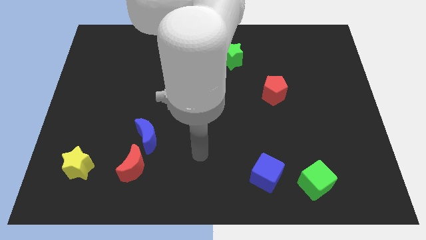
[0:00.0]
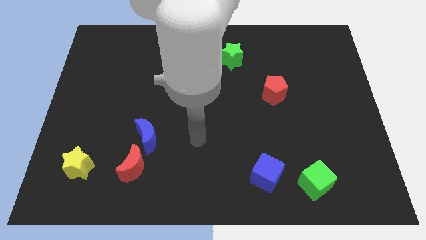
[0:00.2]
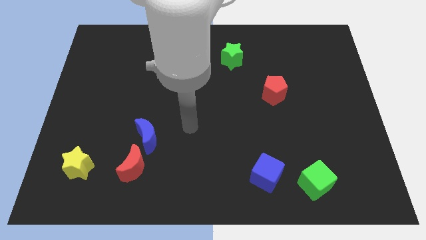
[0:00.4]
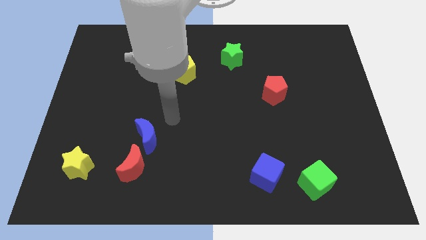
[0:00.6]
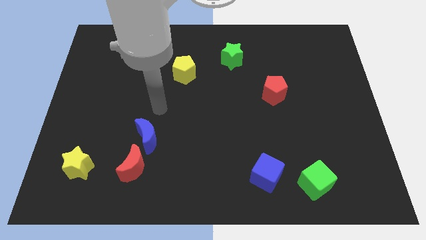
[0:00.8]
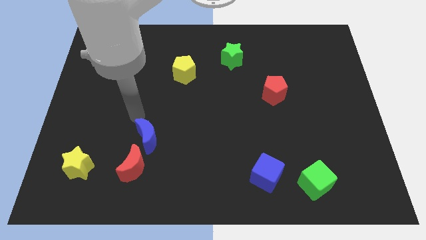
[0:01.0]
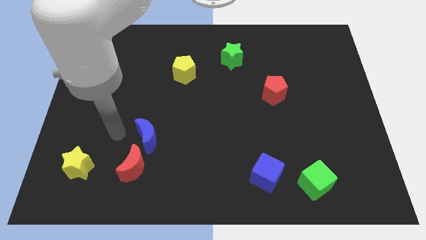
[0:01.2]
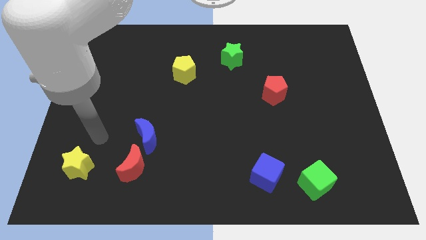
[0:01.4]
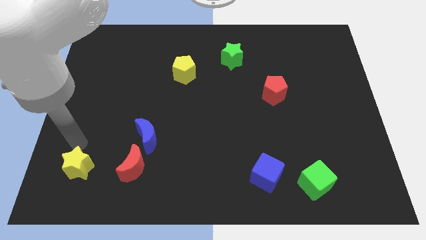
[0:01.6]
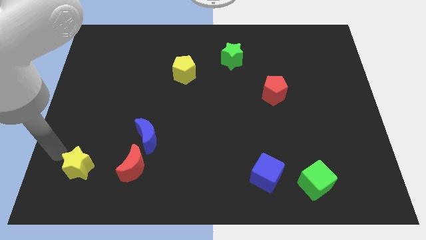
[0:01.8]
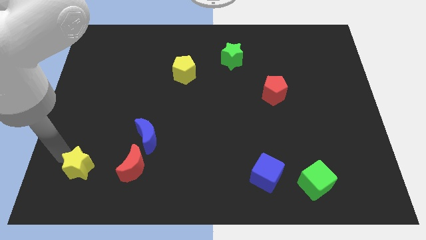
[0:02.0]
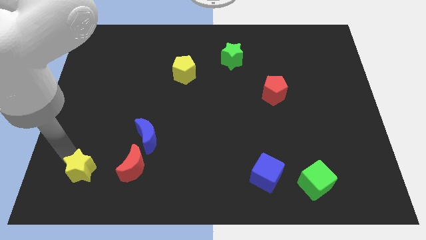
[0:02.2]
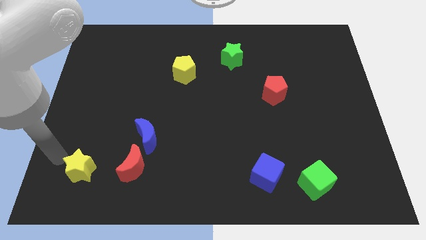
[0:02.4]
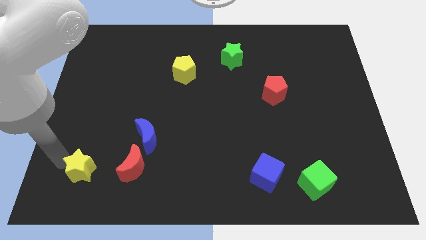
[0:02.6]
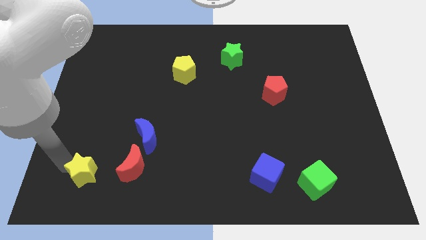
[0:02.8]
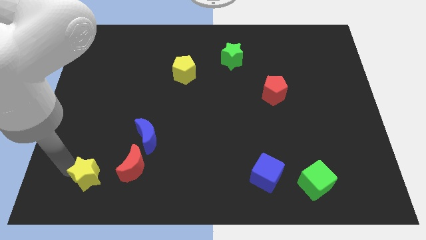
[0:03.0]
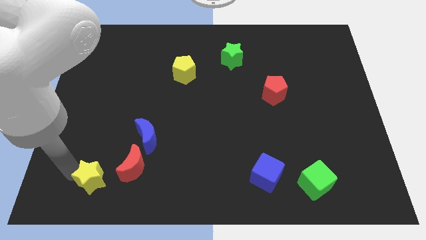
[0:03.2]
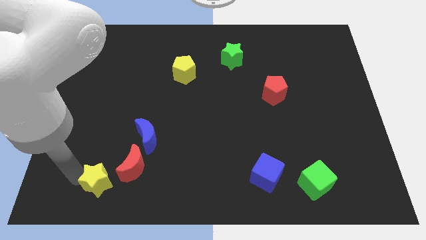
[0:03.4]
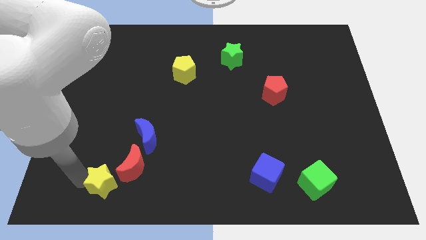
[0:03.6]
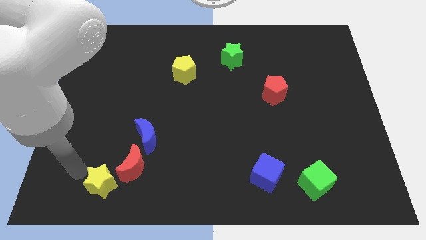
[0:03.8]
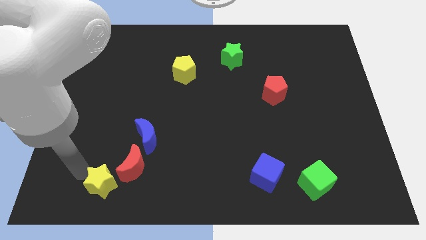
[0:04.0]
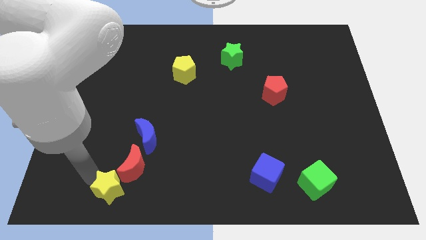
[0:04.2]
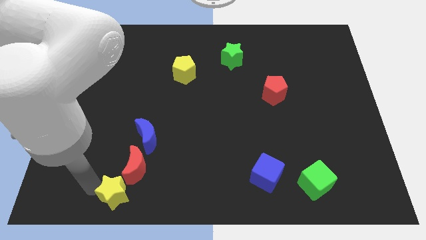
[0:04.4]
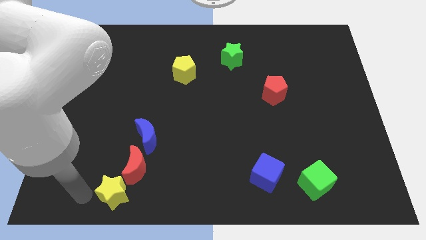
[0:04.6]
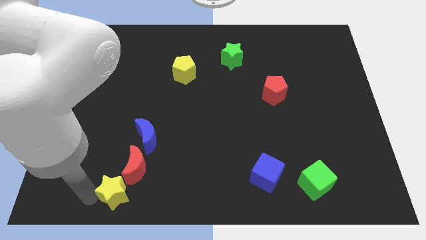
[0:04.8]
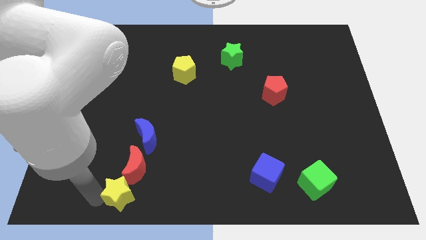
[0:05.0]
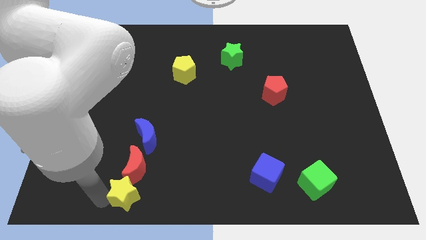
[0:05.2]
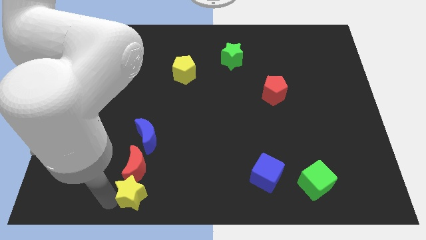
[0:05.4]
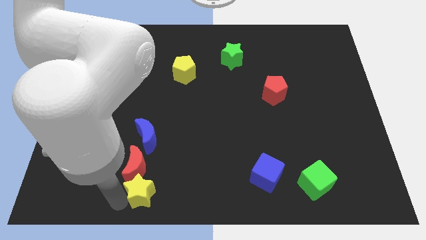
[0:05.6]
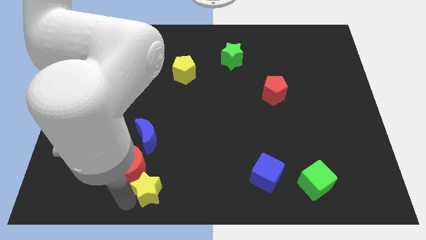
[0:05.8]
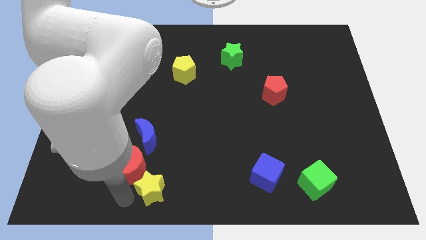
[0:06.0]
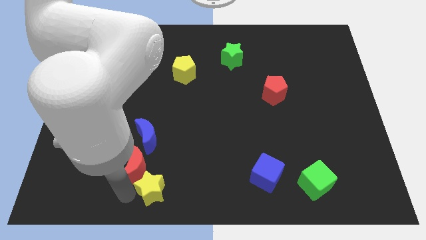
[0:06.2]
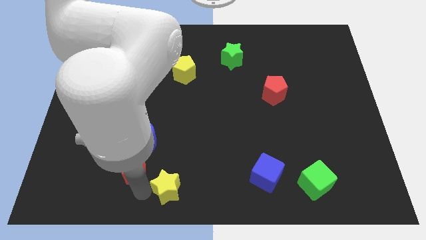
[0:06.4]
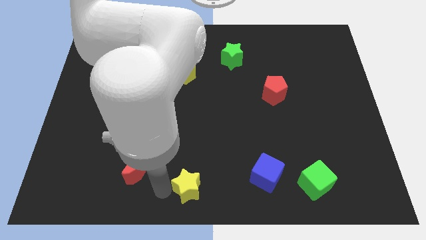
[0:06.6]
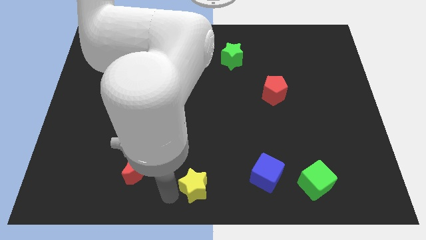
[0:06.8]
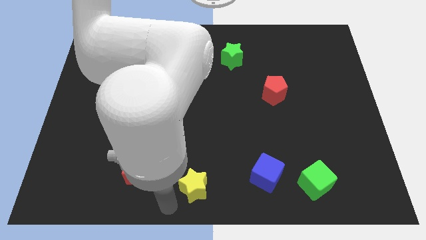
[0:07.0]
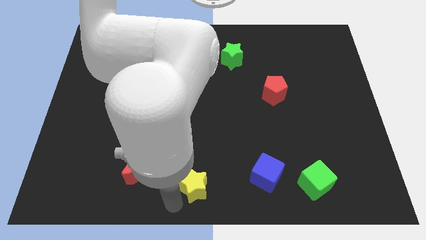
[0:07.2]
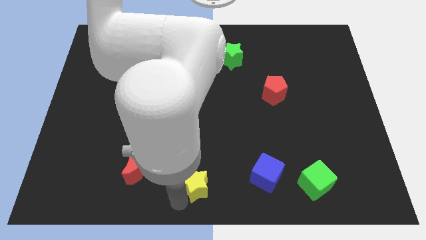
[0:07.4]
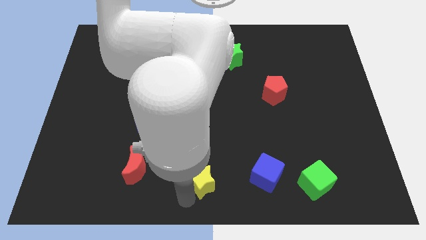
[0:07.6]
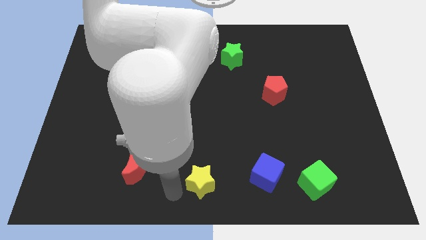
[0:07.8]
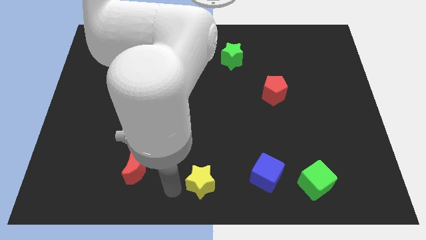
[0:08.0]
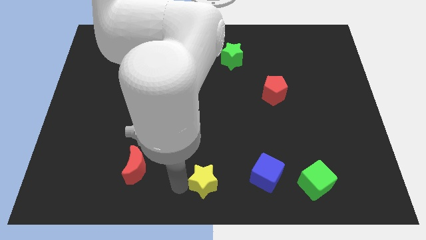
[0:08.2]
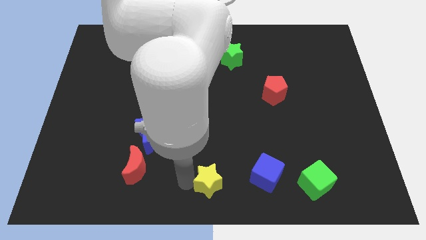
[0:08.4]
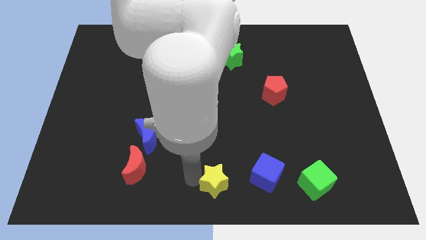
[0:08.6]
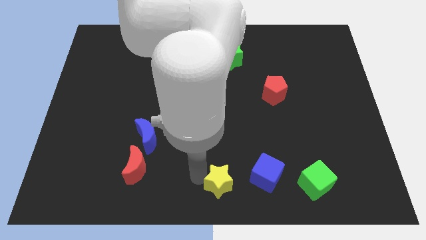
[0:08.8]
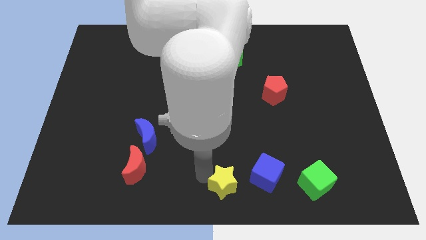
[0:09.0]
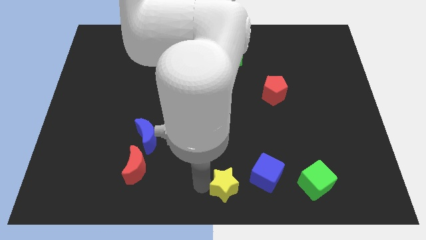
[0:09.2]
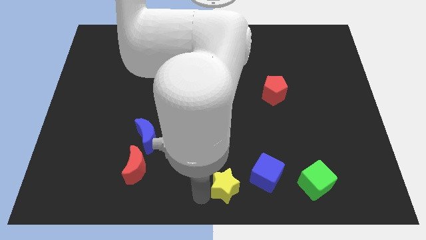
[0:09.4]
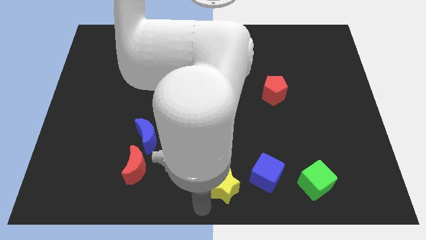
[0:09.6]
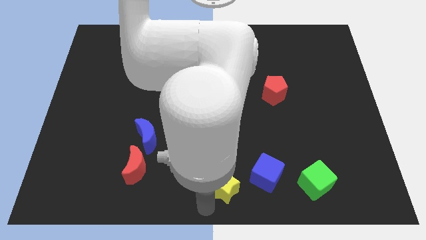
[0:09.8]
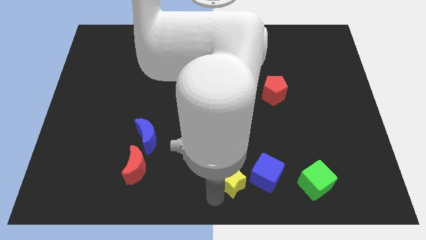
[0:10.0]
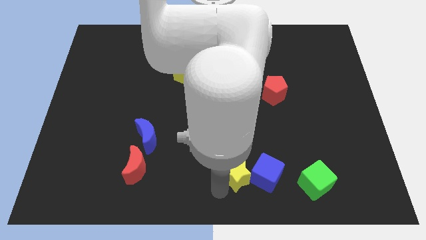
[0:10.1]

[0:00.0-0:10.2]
put the yellow star next to the blue cube
